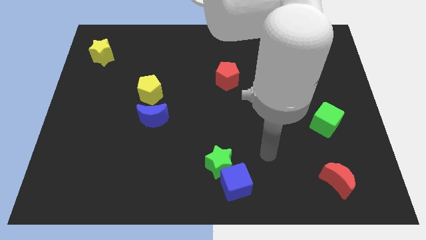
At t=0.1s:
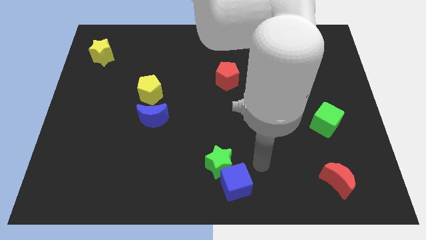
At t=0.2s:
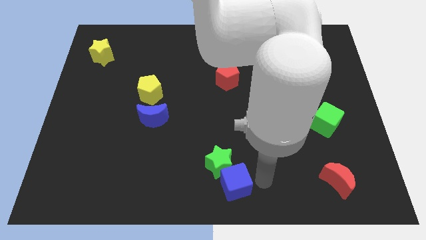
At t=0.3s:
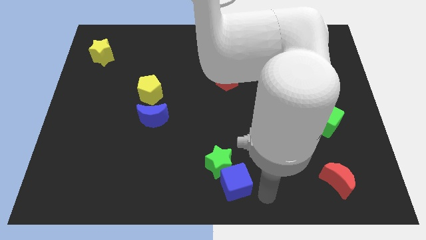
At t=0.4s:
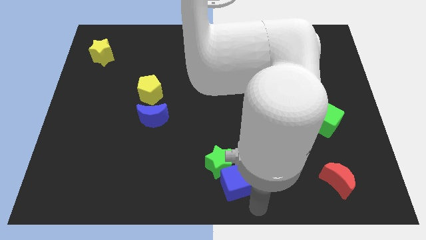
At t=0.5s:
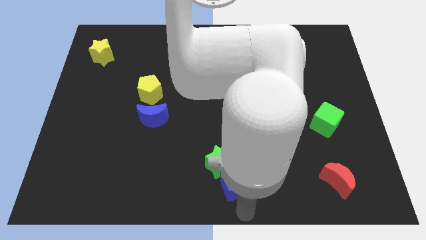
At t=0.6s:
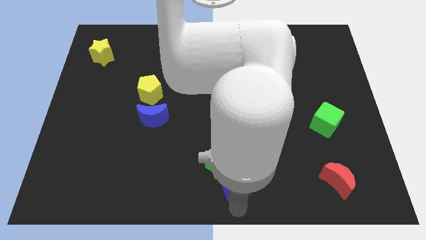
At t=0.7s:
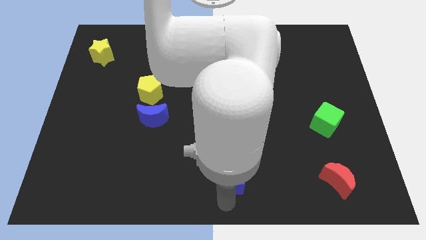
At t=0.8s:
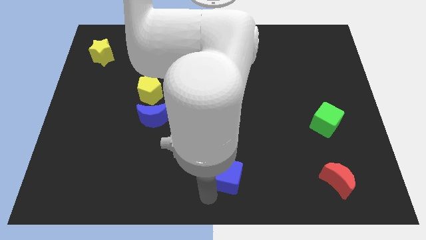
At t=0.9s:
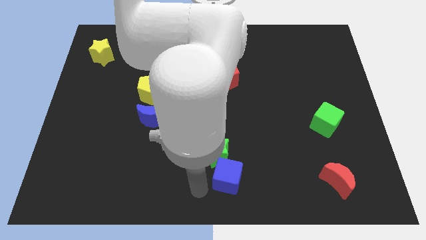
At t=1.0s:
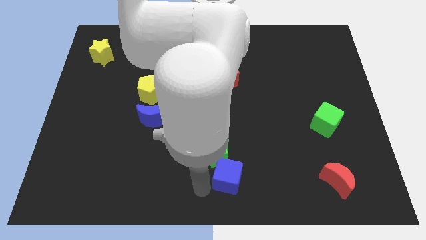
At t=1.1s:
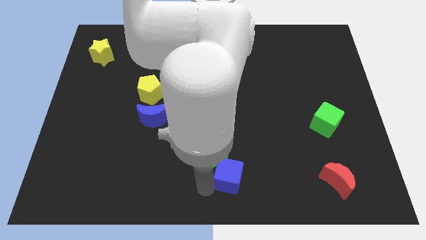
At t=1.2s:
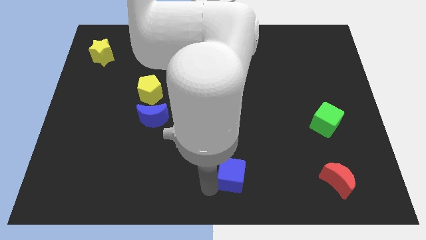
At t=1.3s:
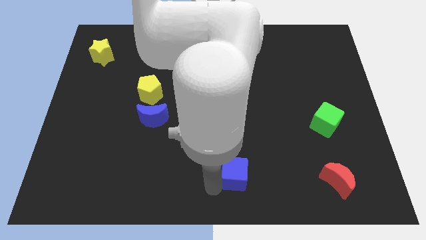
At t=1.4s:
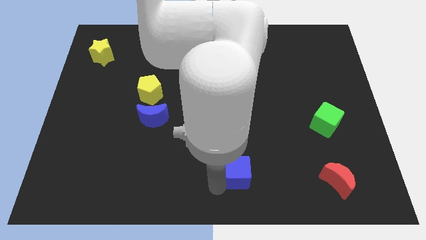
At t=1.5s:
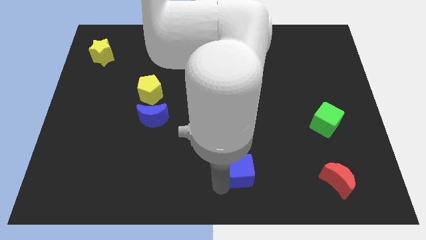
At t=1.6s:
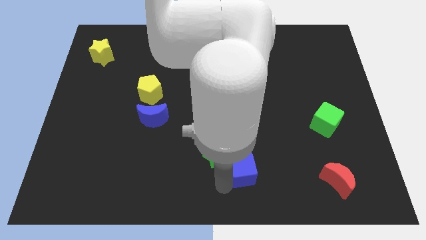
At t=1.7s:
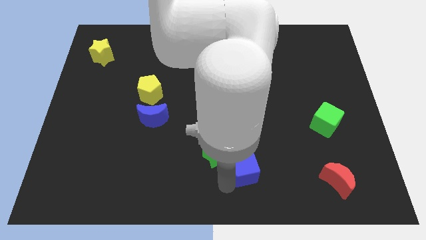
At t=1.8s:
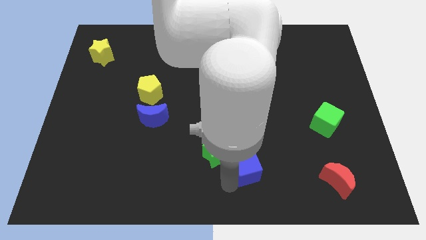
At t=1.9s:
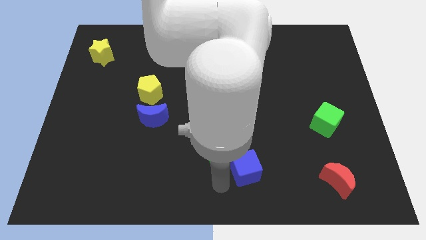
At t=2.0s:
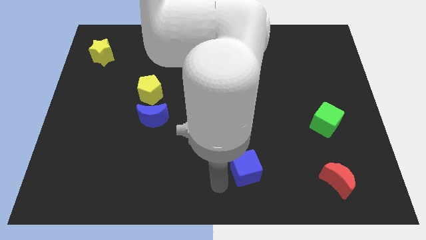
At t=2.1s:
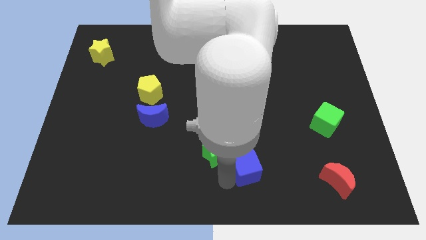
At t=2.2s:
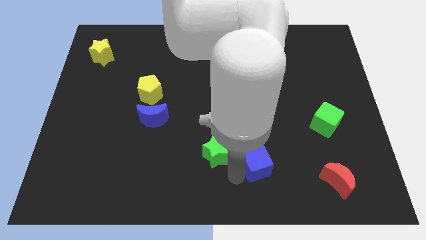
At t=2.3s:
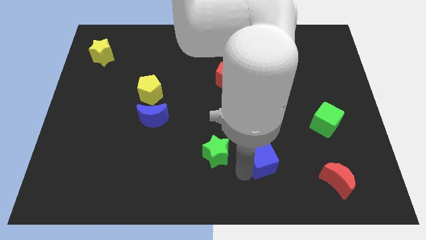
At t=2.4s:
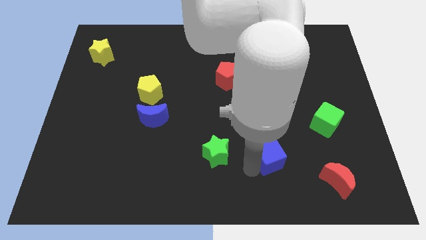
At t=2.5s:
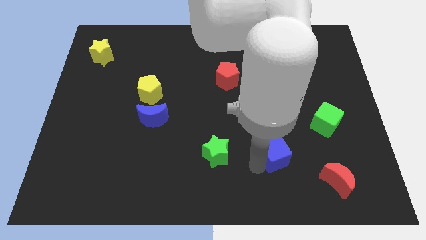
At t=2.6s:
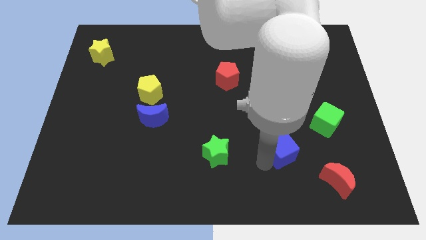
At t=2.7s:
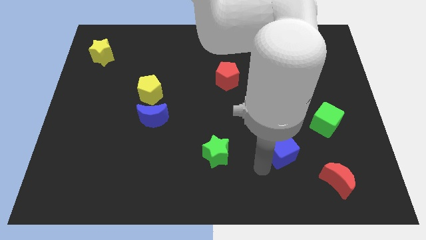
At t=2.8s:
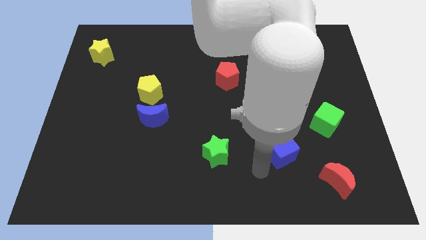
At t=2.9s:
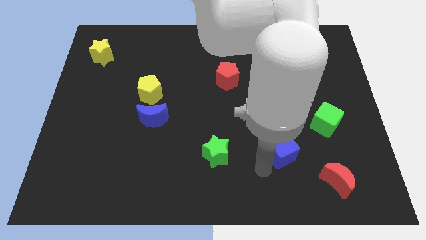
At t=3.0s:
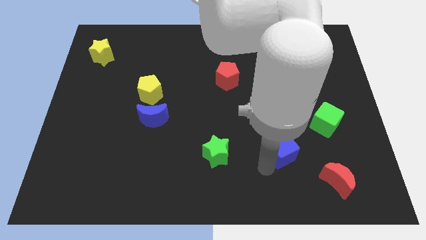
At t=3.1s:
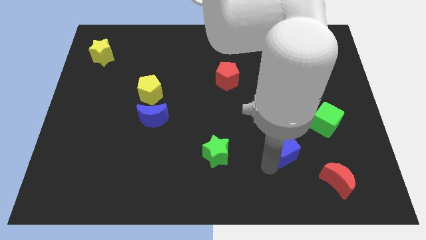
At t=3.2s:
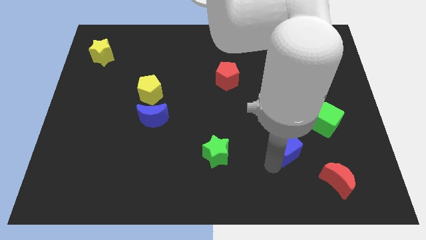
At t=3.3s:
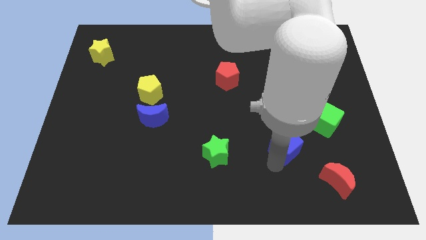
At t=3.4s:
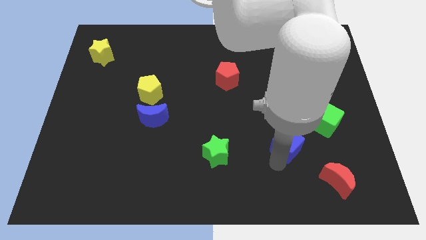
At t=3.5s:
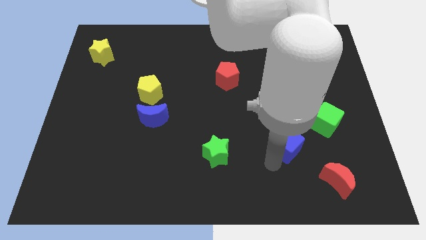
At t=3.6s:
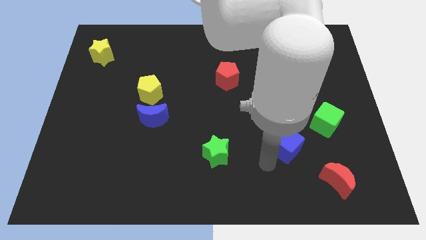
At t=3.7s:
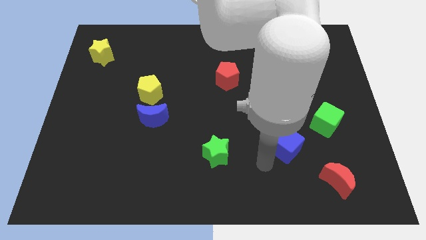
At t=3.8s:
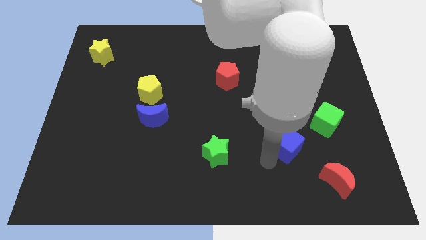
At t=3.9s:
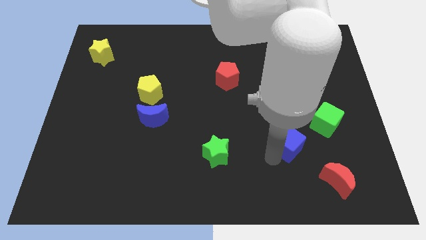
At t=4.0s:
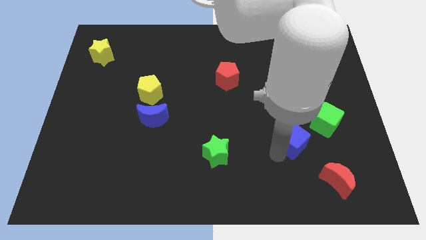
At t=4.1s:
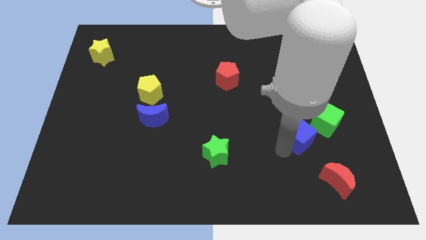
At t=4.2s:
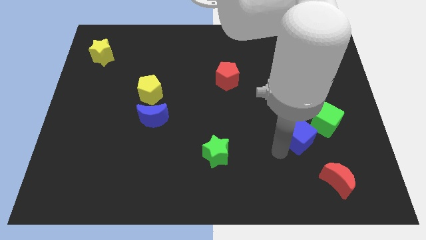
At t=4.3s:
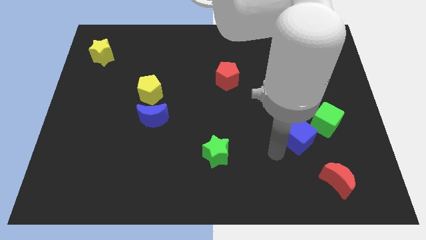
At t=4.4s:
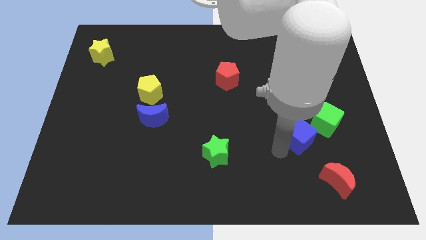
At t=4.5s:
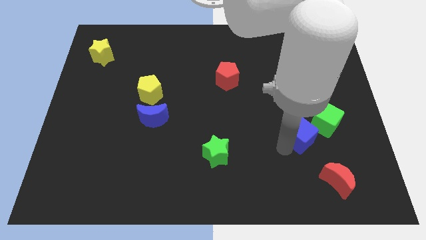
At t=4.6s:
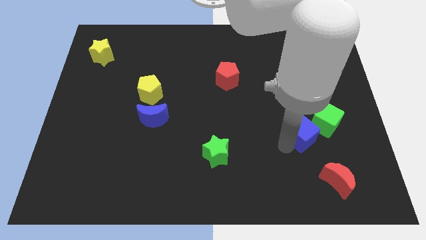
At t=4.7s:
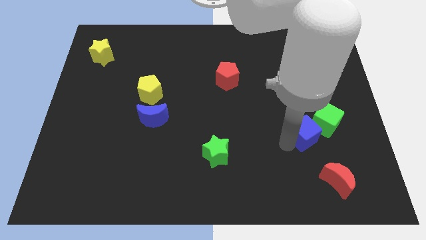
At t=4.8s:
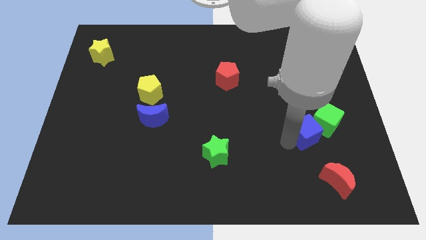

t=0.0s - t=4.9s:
put the blue cube towards the green cube

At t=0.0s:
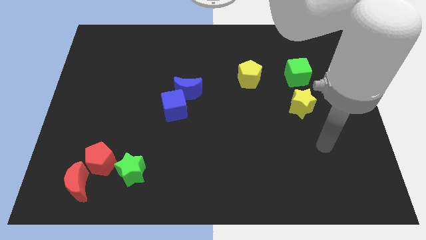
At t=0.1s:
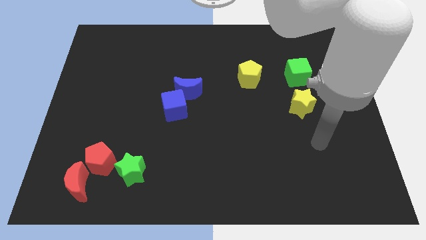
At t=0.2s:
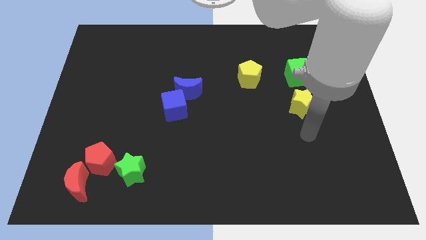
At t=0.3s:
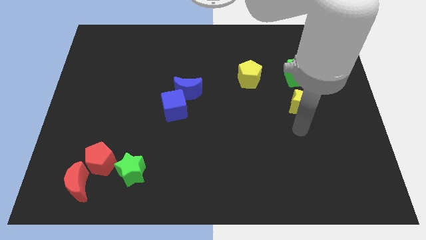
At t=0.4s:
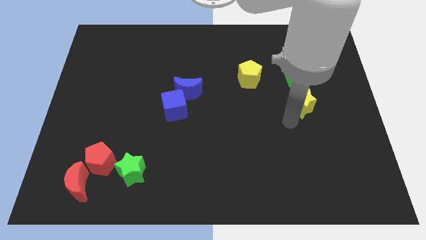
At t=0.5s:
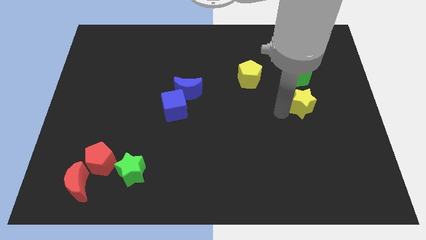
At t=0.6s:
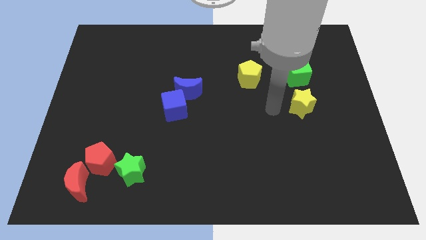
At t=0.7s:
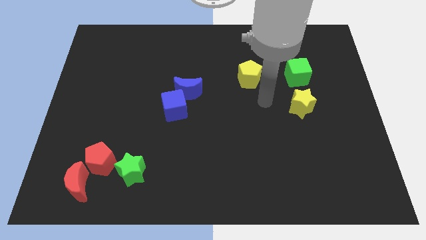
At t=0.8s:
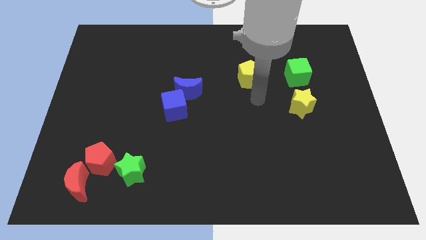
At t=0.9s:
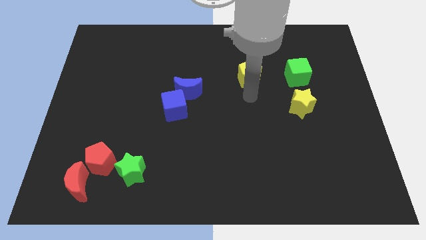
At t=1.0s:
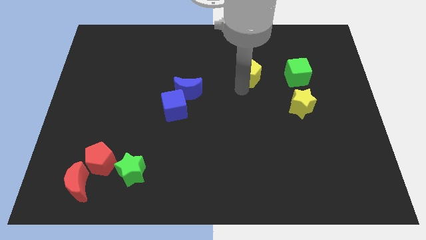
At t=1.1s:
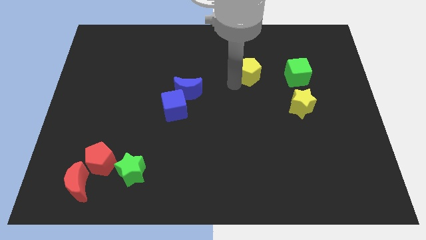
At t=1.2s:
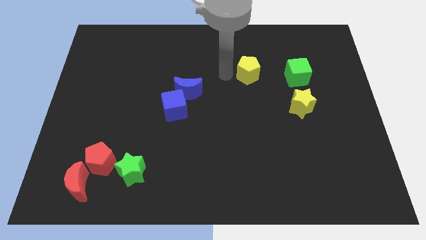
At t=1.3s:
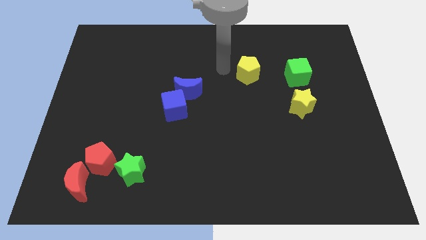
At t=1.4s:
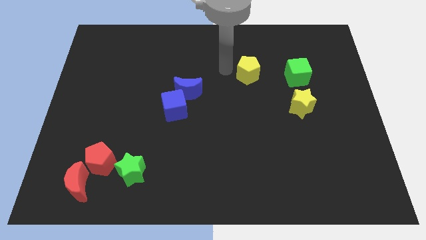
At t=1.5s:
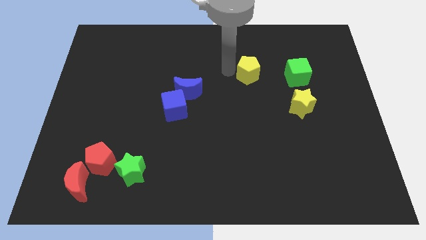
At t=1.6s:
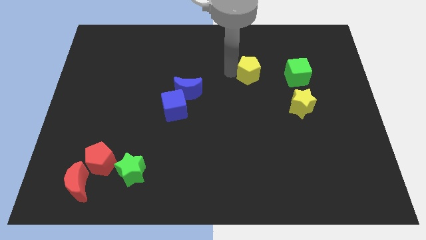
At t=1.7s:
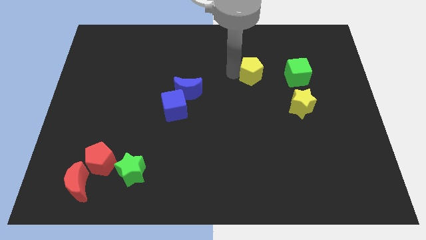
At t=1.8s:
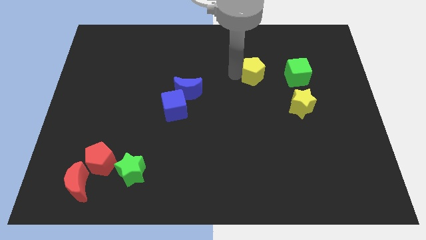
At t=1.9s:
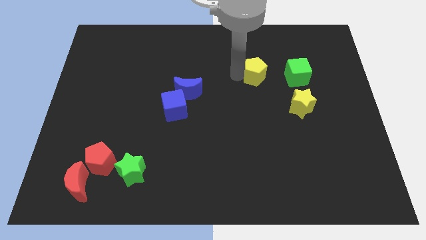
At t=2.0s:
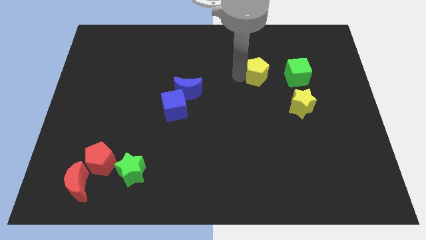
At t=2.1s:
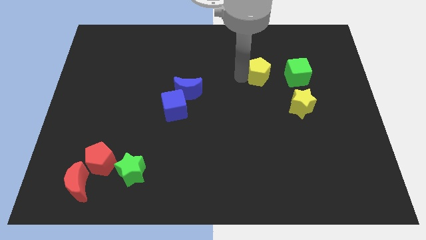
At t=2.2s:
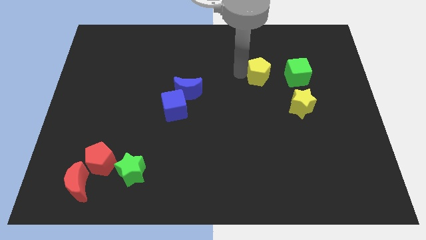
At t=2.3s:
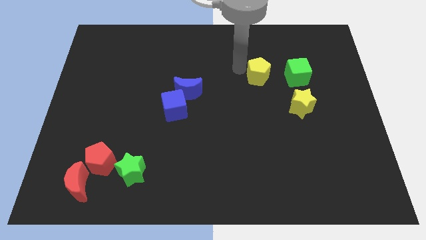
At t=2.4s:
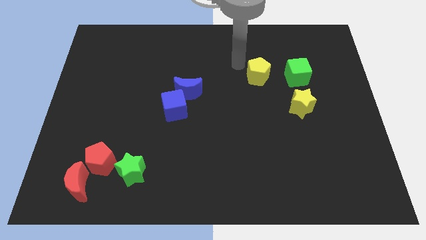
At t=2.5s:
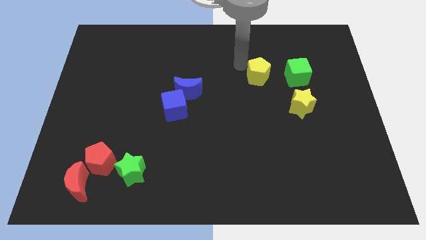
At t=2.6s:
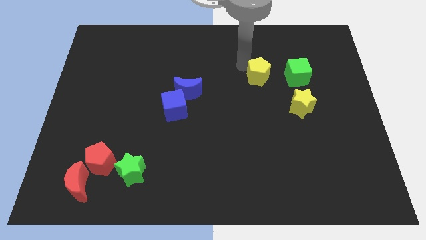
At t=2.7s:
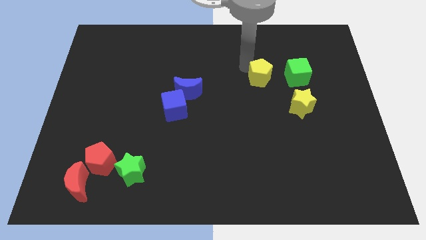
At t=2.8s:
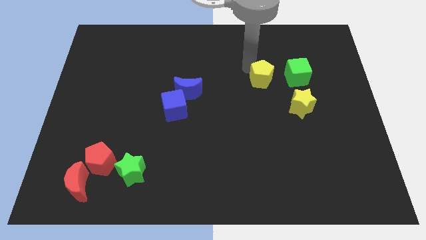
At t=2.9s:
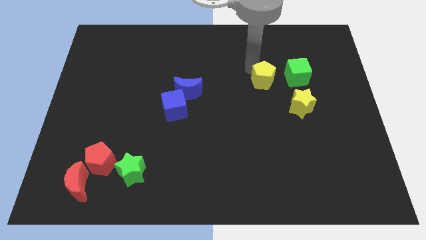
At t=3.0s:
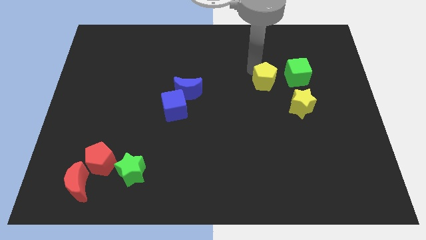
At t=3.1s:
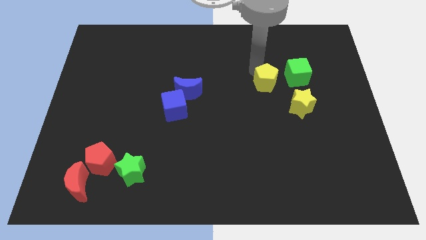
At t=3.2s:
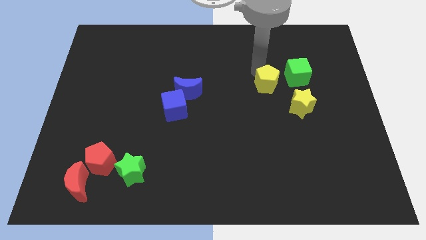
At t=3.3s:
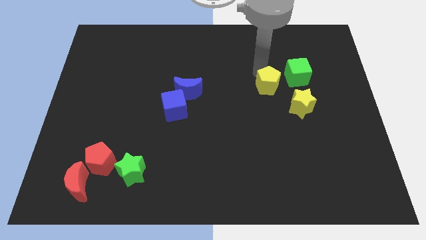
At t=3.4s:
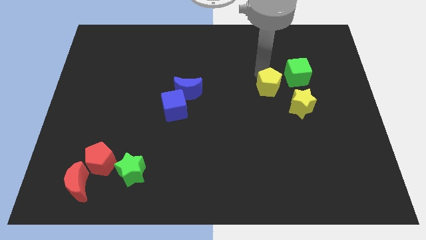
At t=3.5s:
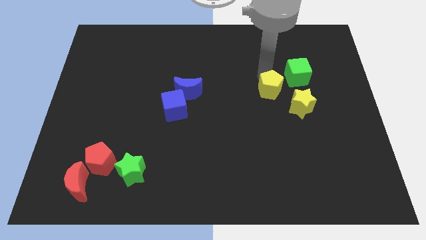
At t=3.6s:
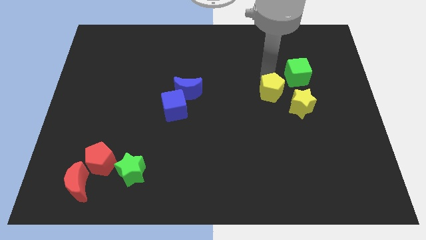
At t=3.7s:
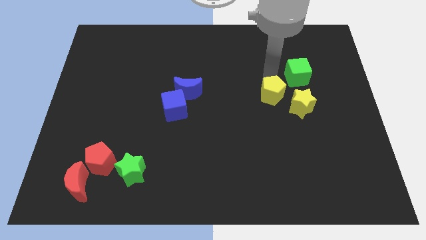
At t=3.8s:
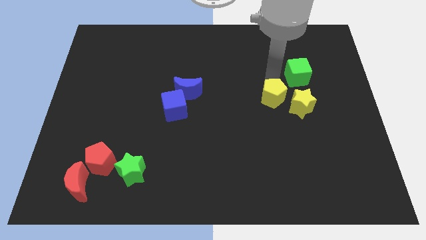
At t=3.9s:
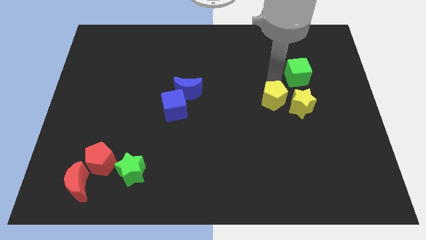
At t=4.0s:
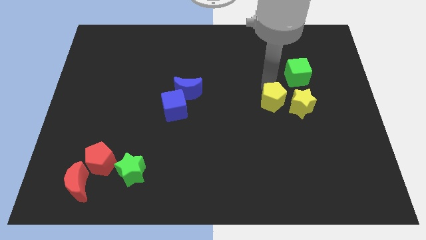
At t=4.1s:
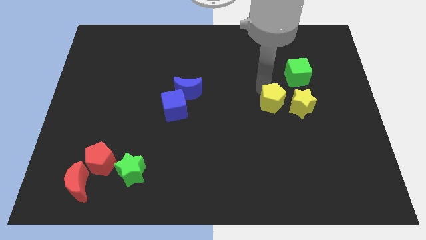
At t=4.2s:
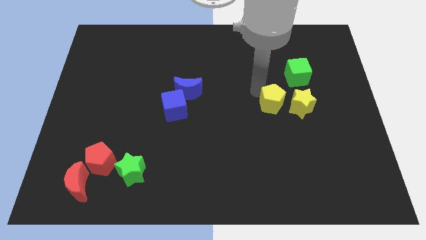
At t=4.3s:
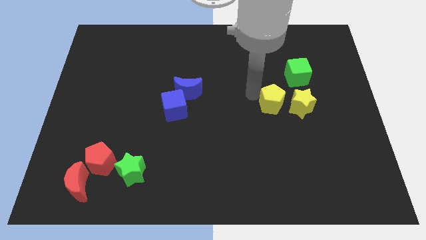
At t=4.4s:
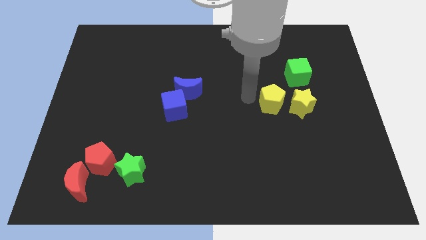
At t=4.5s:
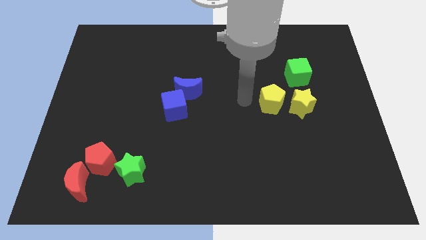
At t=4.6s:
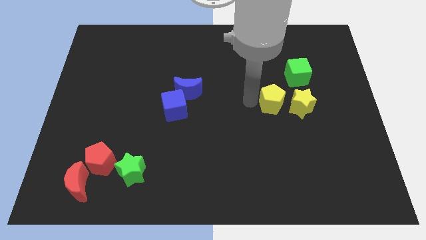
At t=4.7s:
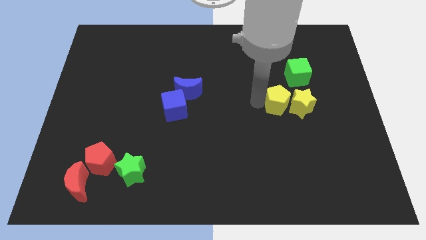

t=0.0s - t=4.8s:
slide the yellow pentagon towards the yellow star
